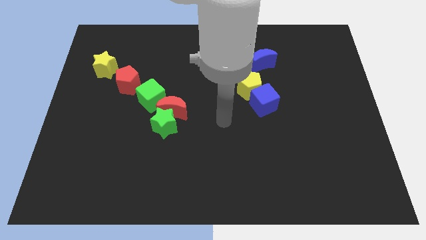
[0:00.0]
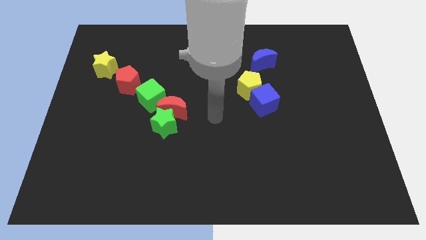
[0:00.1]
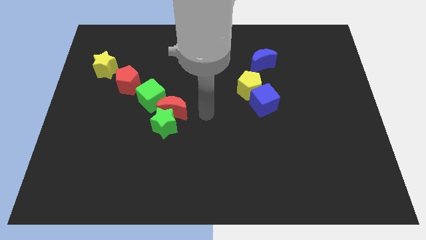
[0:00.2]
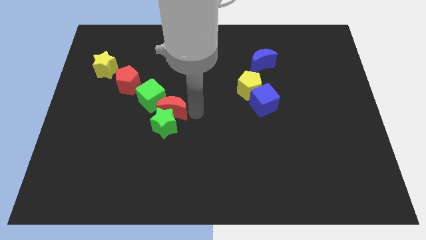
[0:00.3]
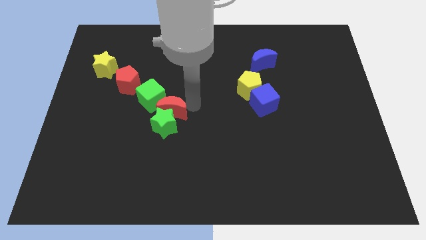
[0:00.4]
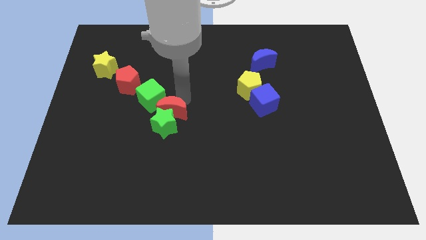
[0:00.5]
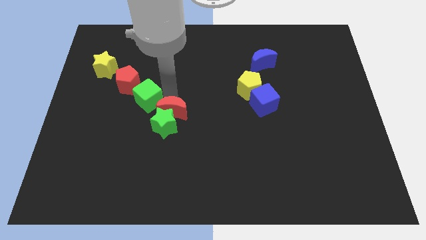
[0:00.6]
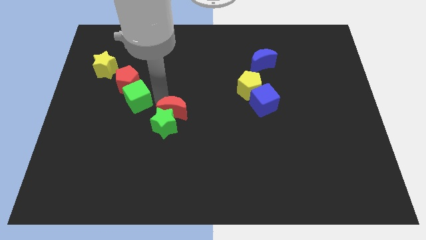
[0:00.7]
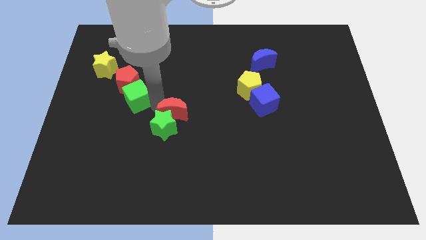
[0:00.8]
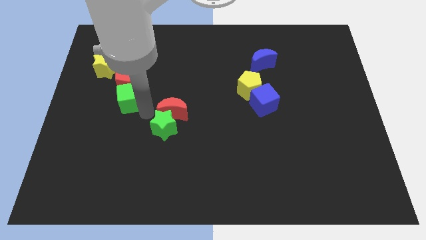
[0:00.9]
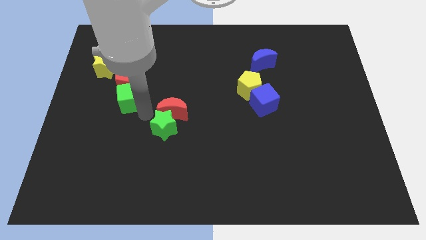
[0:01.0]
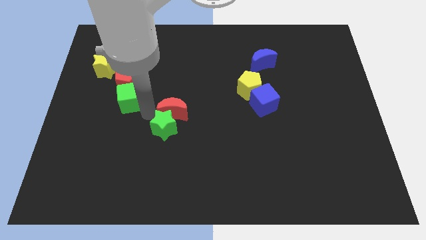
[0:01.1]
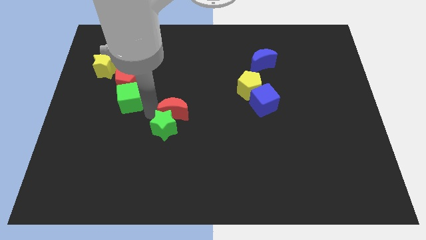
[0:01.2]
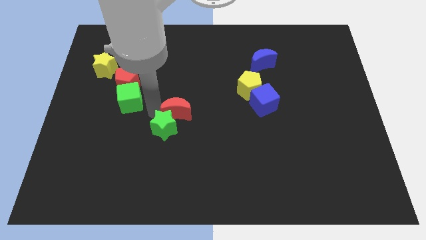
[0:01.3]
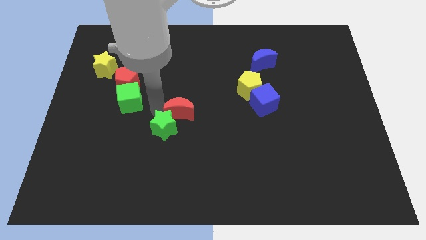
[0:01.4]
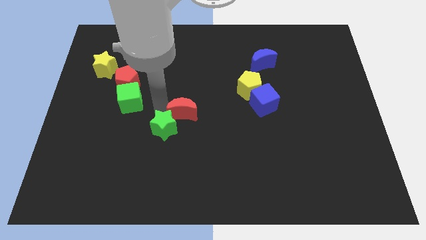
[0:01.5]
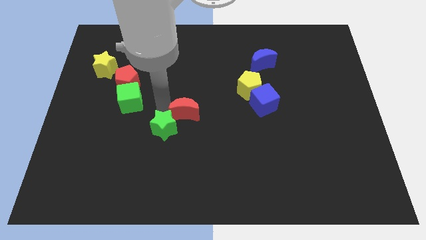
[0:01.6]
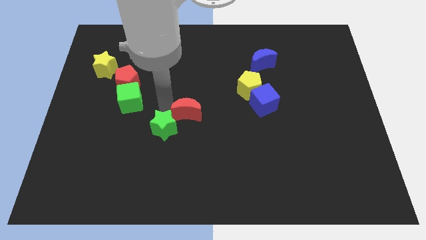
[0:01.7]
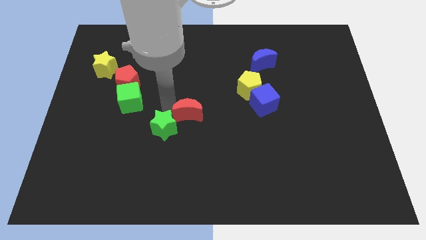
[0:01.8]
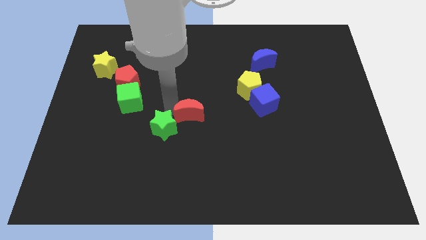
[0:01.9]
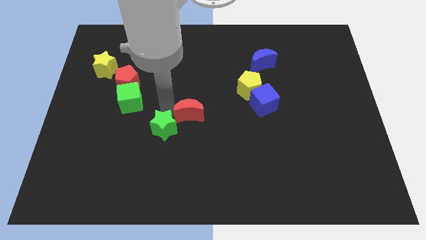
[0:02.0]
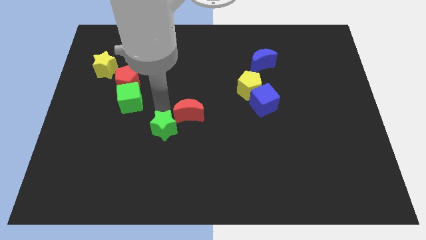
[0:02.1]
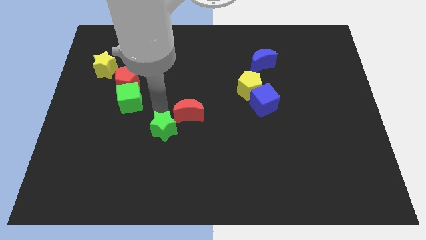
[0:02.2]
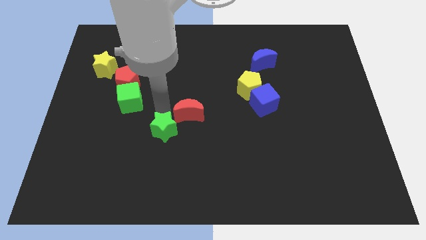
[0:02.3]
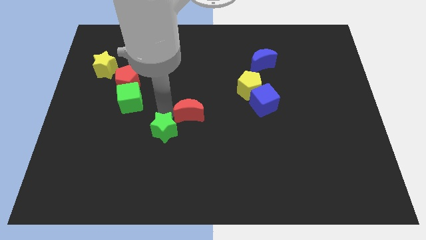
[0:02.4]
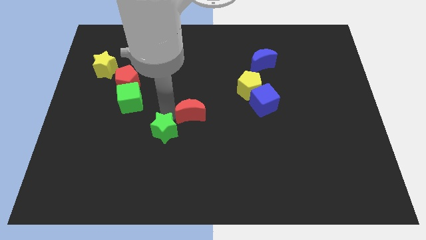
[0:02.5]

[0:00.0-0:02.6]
pull the red moon apart from the green star and green cube

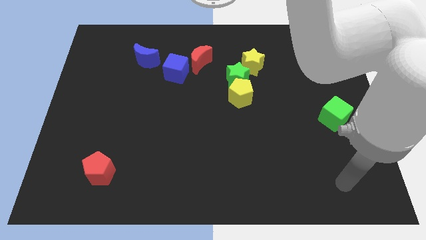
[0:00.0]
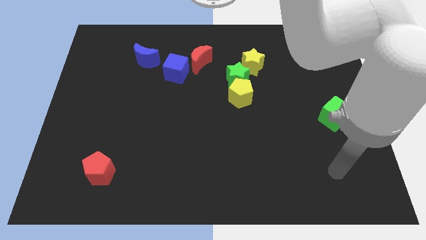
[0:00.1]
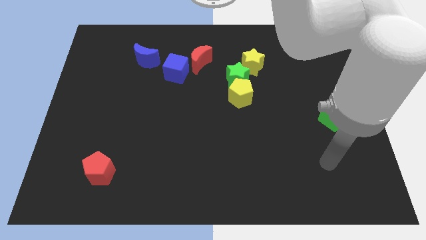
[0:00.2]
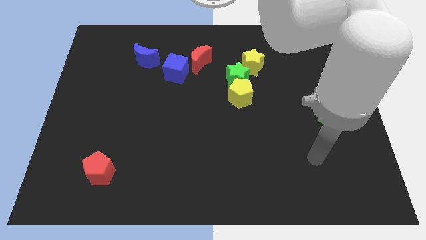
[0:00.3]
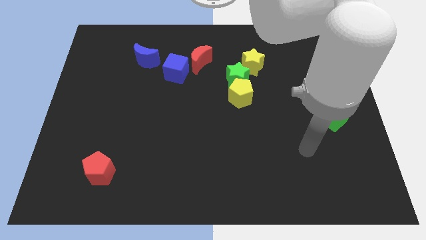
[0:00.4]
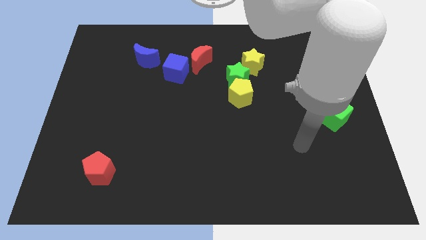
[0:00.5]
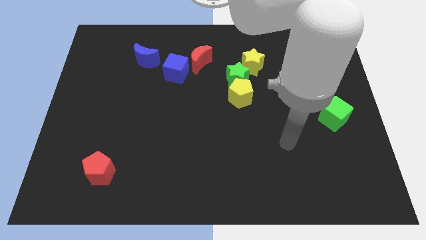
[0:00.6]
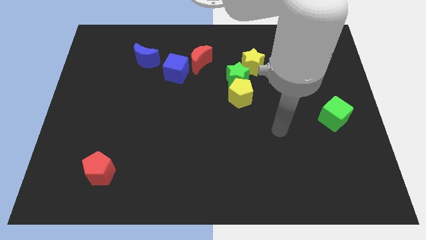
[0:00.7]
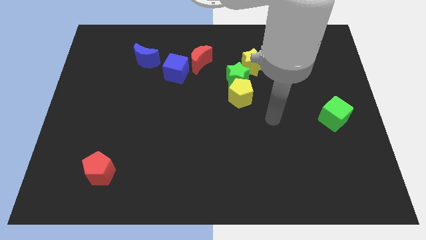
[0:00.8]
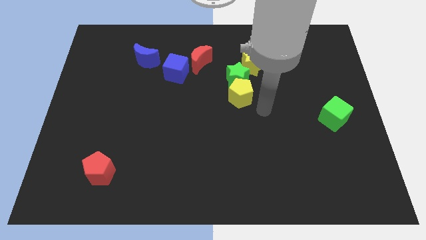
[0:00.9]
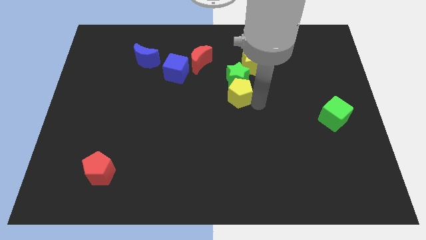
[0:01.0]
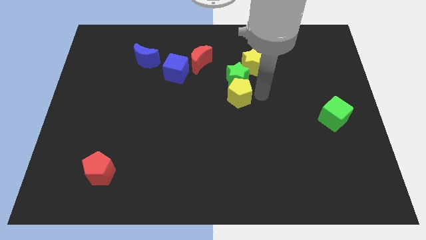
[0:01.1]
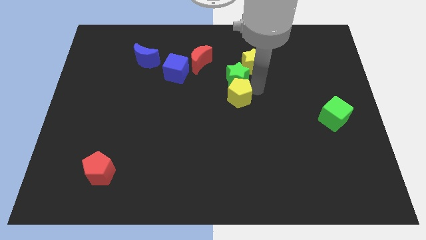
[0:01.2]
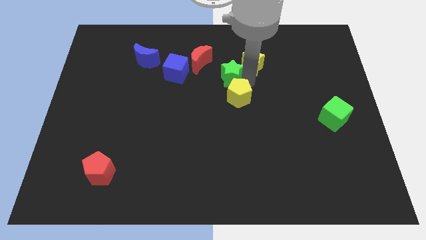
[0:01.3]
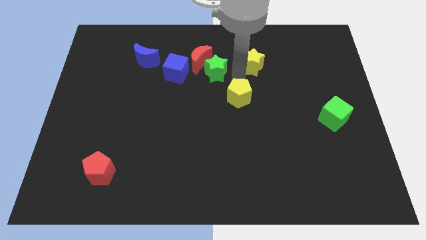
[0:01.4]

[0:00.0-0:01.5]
separate the yellow pentagon from the green star

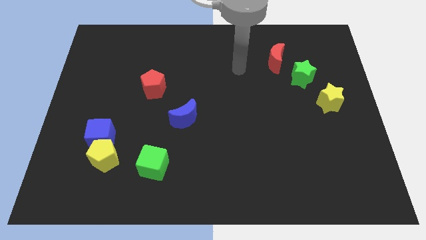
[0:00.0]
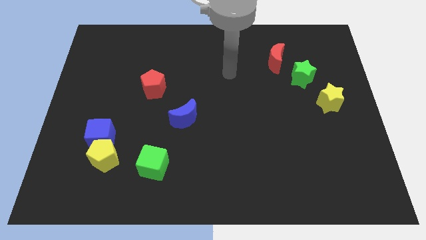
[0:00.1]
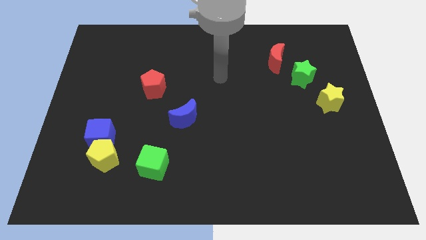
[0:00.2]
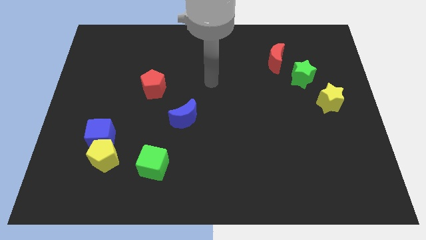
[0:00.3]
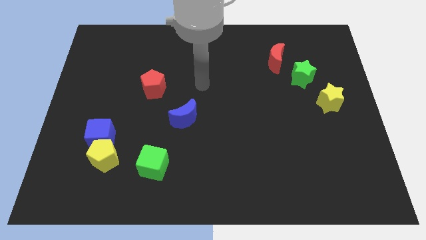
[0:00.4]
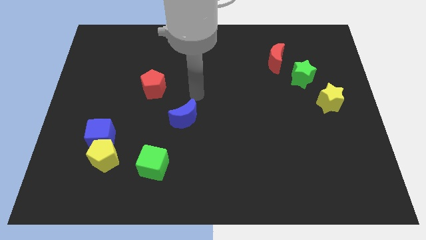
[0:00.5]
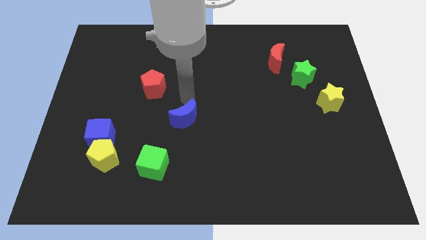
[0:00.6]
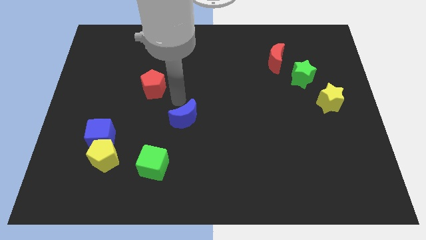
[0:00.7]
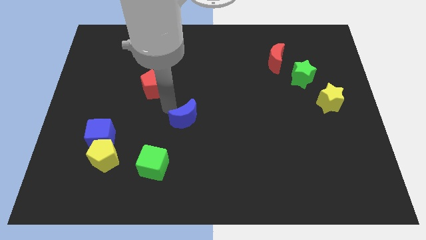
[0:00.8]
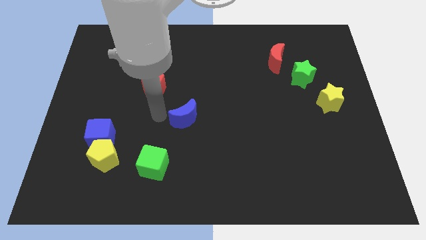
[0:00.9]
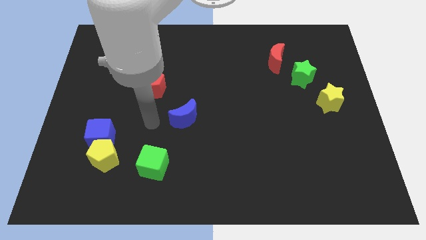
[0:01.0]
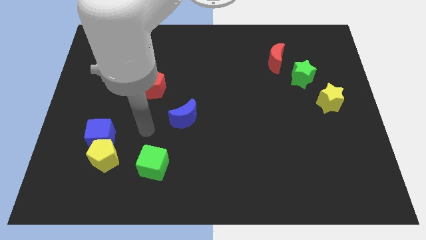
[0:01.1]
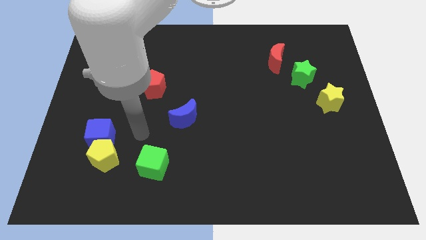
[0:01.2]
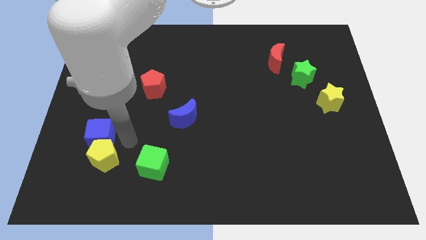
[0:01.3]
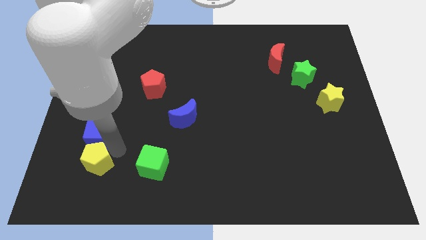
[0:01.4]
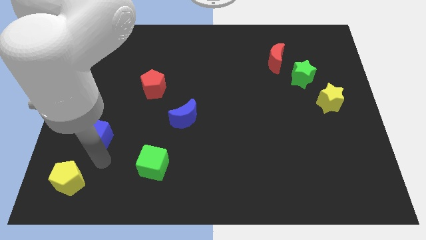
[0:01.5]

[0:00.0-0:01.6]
move the blue cube away from the yellow pentagon

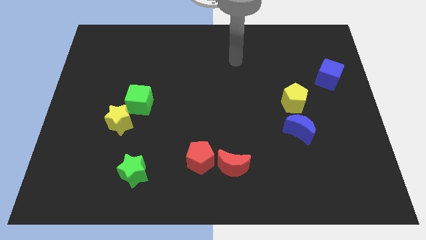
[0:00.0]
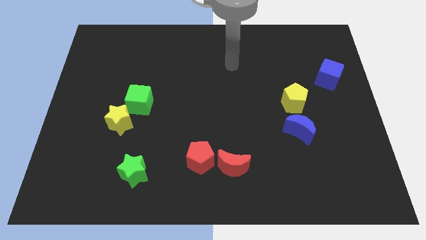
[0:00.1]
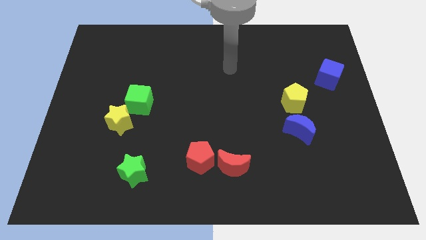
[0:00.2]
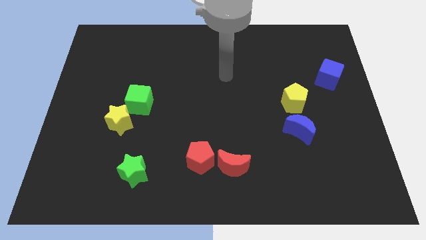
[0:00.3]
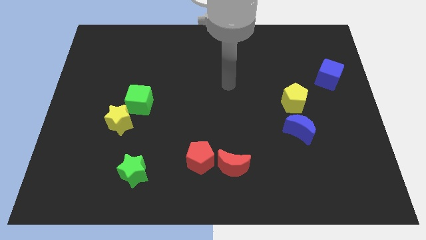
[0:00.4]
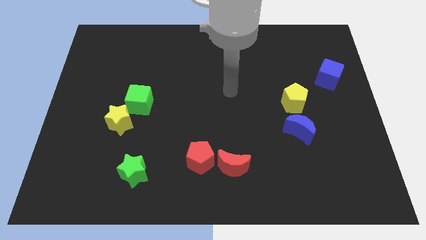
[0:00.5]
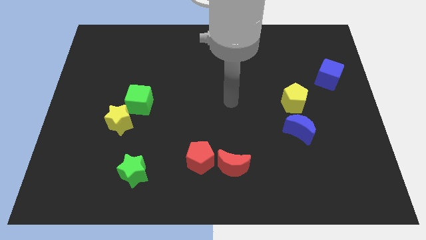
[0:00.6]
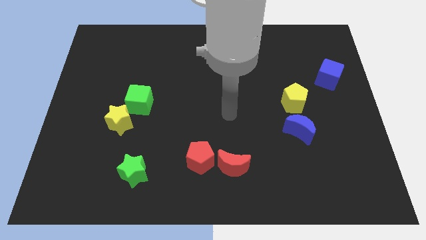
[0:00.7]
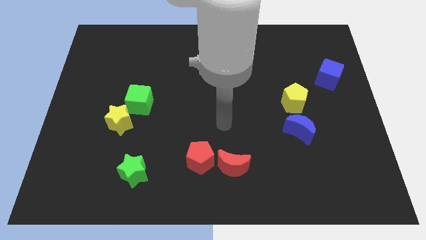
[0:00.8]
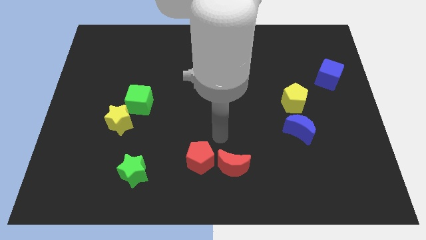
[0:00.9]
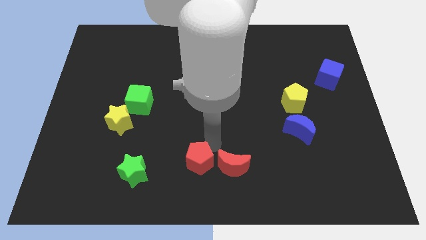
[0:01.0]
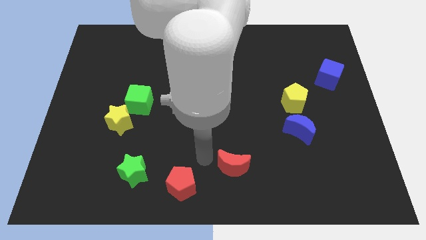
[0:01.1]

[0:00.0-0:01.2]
move the red moon away from the red pentagon

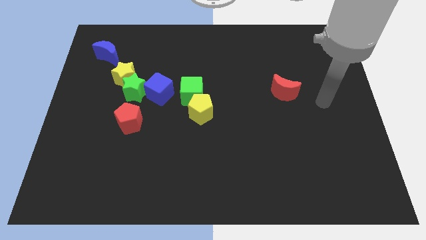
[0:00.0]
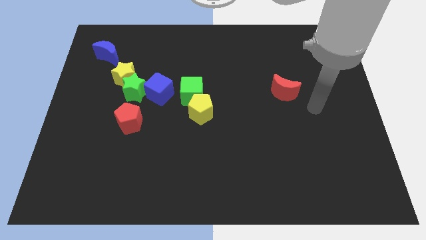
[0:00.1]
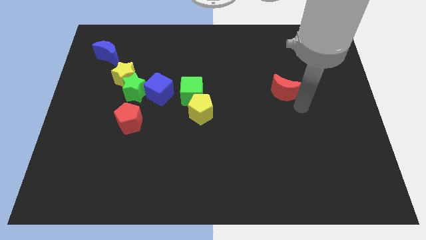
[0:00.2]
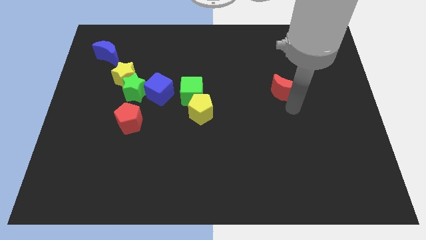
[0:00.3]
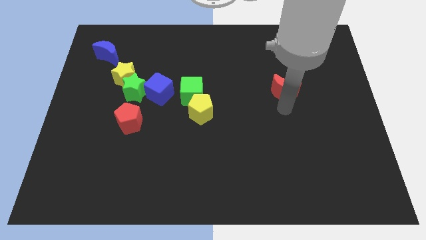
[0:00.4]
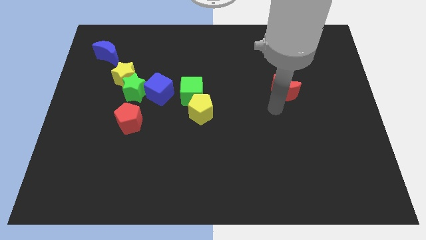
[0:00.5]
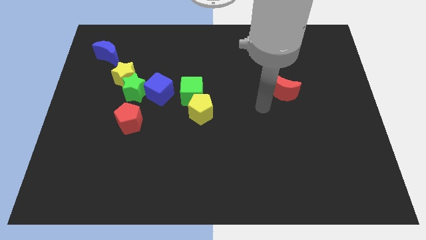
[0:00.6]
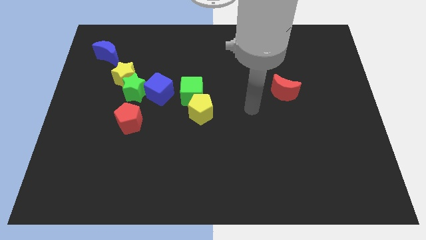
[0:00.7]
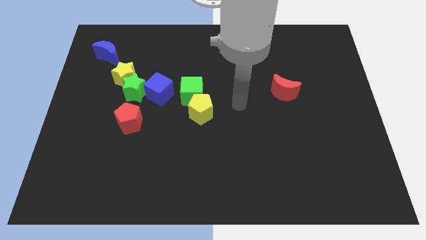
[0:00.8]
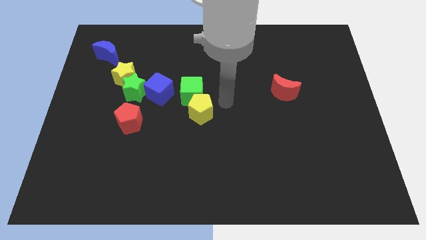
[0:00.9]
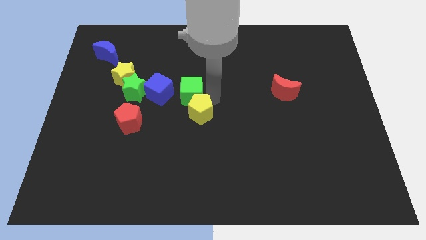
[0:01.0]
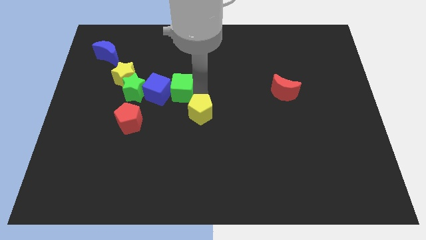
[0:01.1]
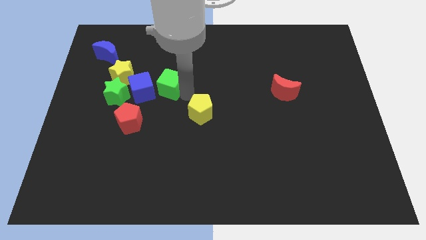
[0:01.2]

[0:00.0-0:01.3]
move the yellow pentagon away from the green cube

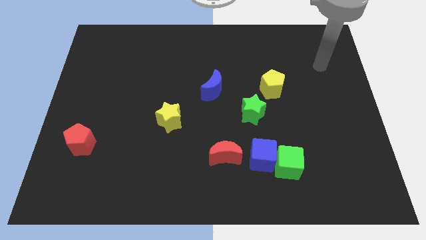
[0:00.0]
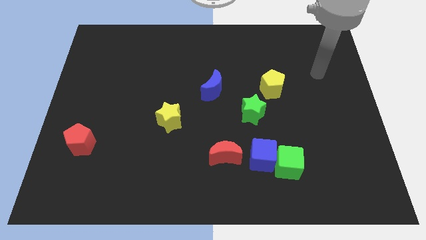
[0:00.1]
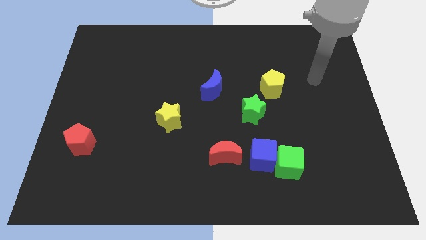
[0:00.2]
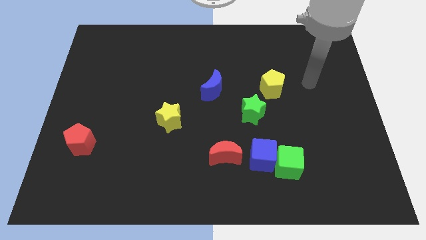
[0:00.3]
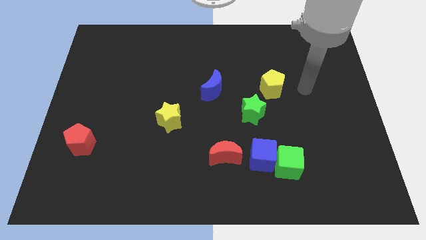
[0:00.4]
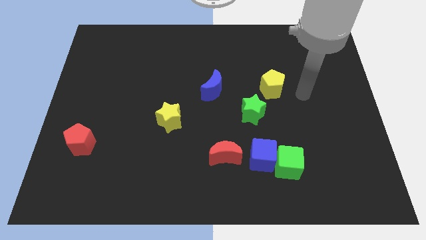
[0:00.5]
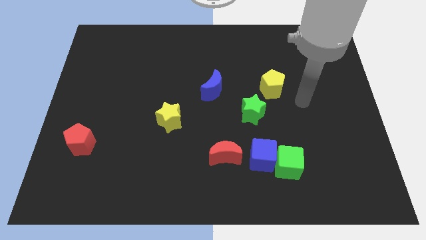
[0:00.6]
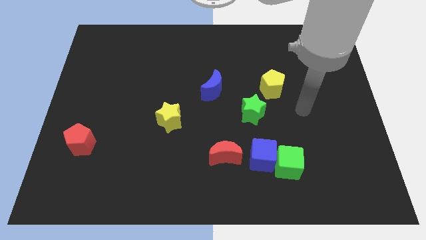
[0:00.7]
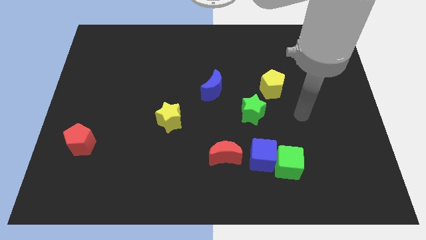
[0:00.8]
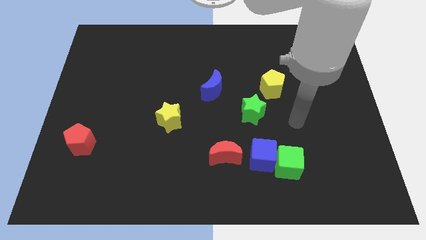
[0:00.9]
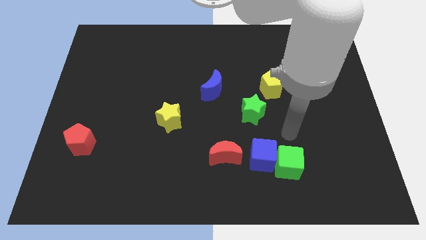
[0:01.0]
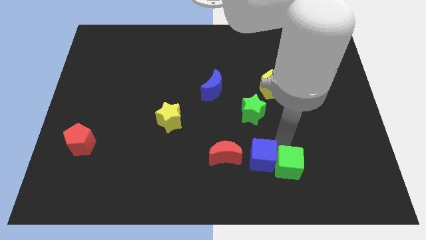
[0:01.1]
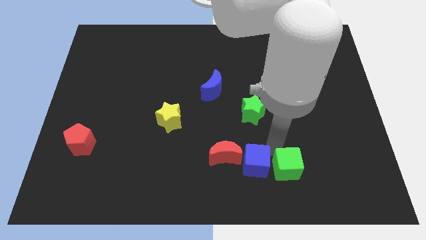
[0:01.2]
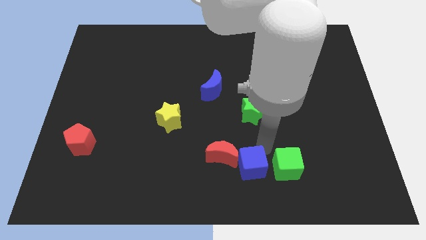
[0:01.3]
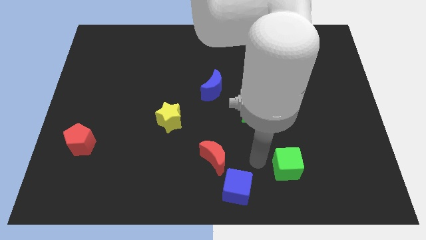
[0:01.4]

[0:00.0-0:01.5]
separate the green cube from the blue cube
